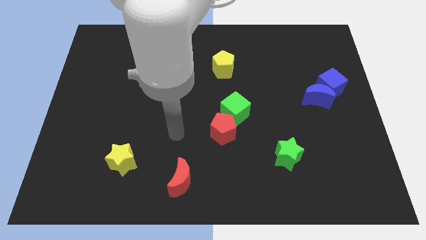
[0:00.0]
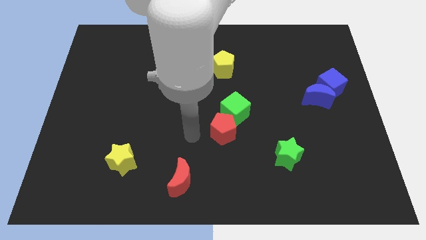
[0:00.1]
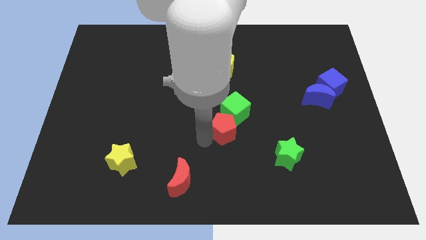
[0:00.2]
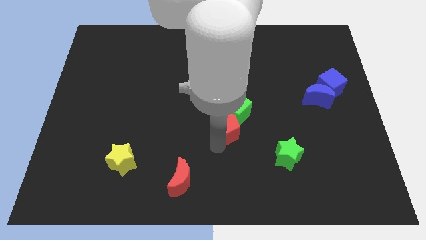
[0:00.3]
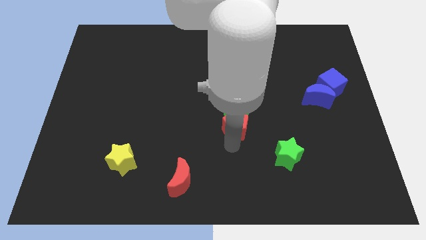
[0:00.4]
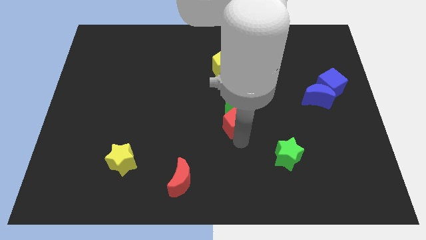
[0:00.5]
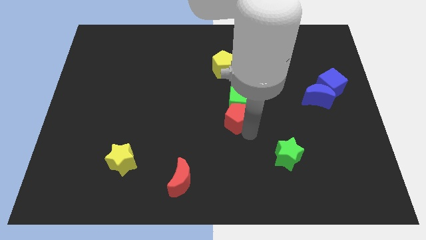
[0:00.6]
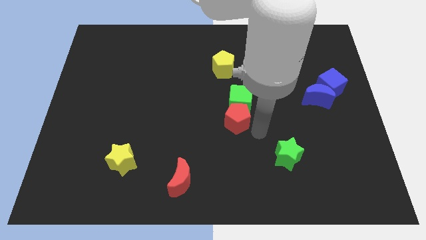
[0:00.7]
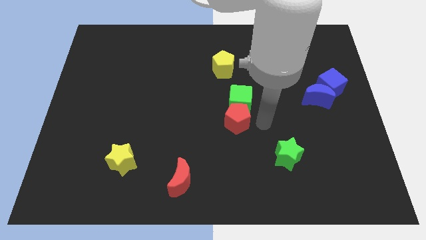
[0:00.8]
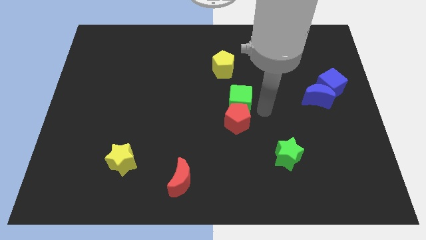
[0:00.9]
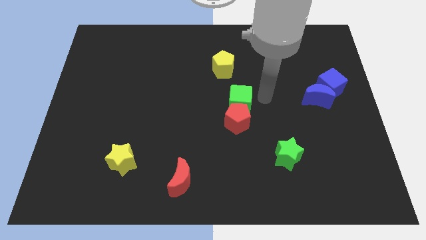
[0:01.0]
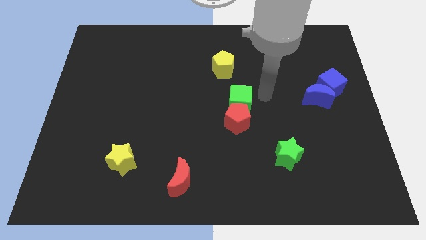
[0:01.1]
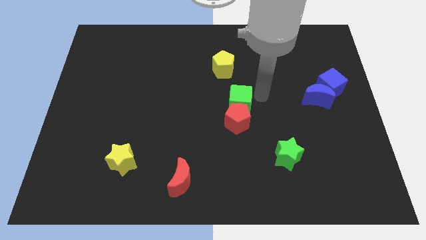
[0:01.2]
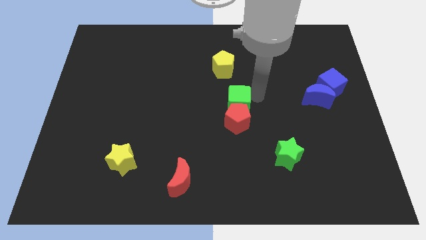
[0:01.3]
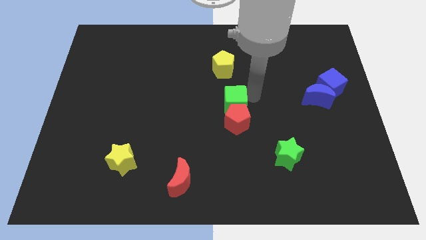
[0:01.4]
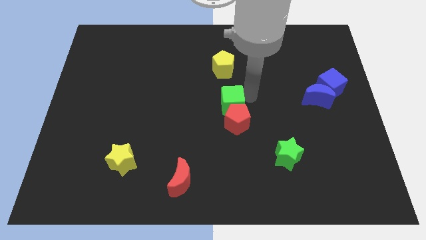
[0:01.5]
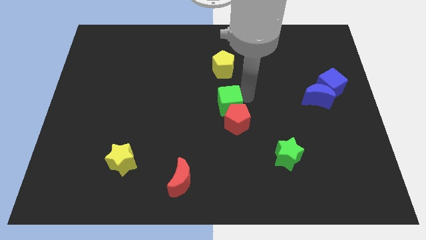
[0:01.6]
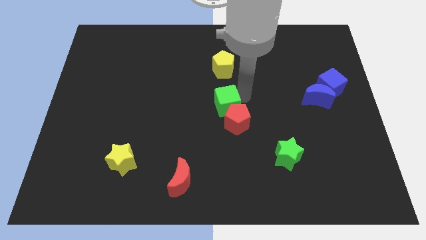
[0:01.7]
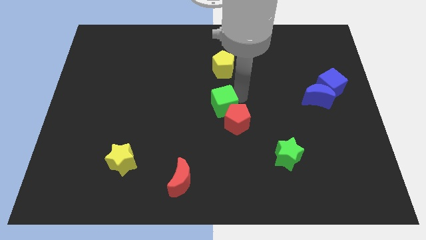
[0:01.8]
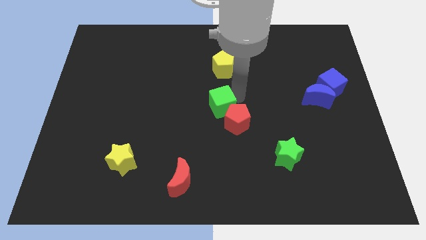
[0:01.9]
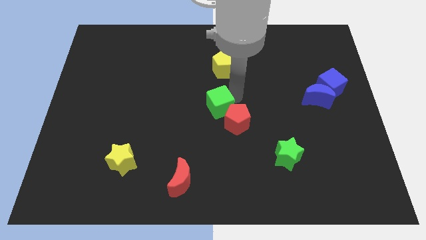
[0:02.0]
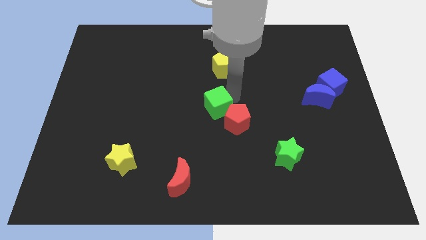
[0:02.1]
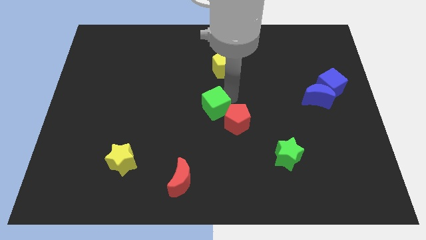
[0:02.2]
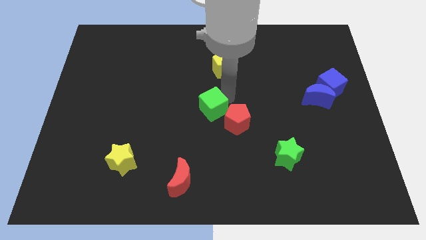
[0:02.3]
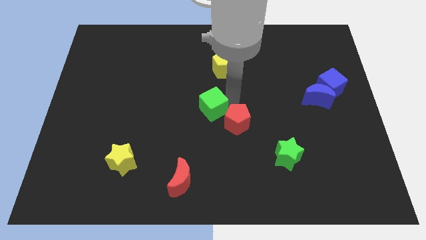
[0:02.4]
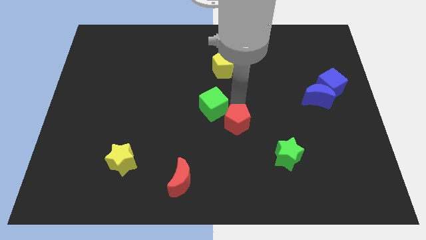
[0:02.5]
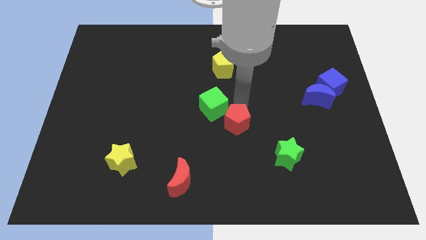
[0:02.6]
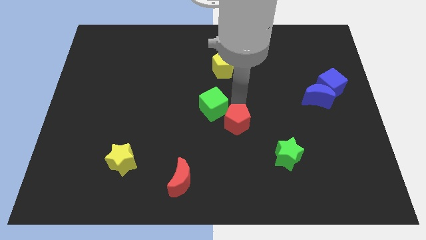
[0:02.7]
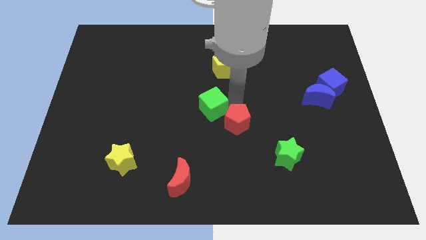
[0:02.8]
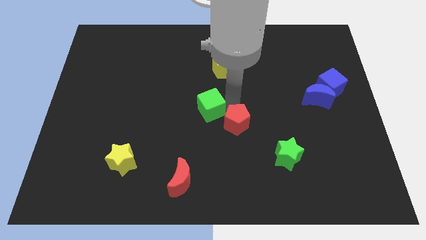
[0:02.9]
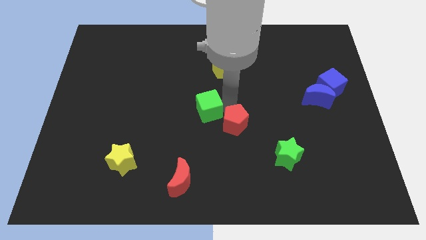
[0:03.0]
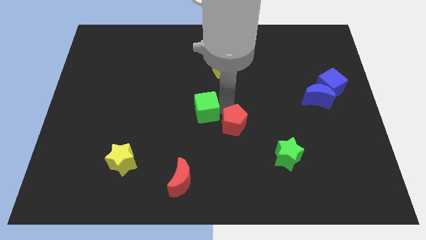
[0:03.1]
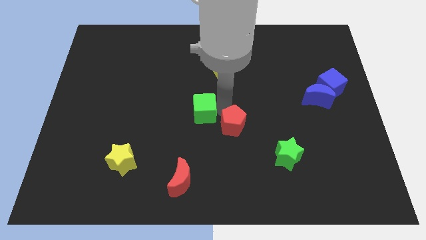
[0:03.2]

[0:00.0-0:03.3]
move the green cube left a little bit

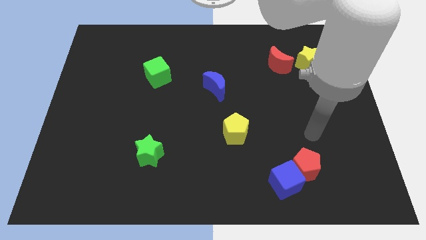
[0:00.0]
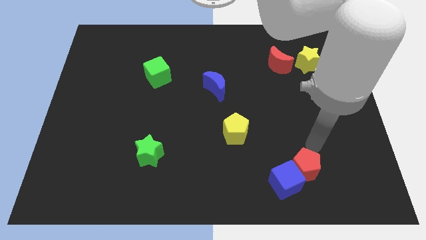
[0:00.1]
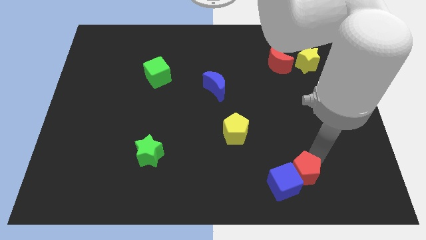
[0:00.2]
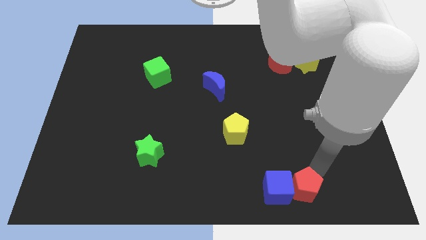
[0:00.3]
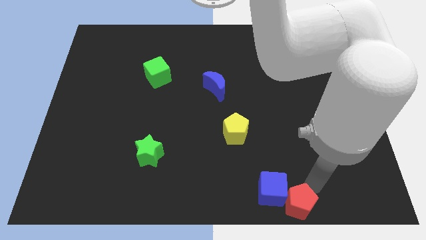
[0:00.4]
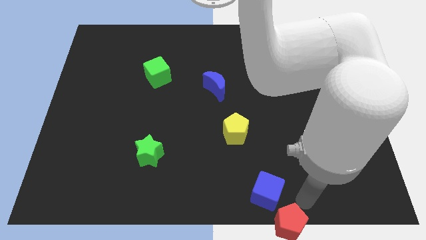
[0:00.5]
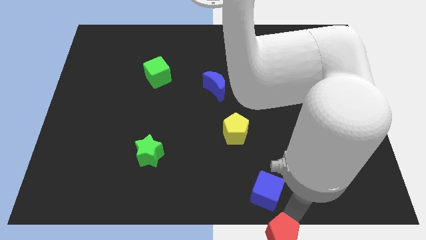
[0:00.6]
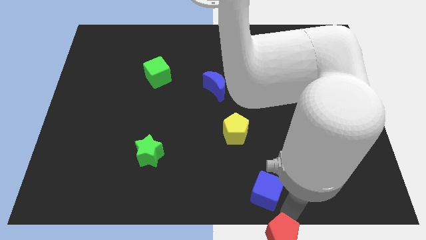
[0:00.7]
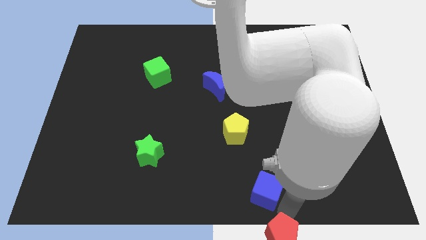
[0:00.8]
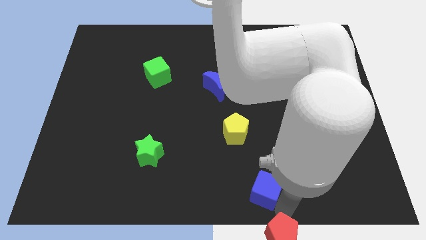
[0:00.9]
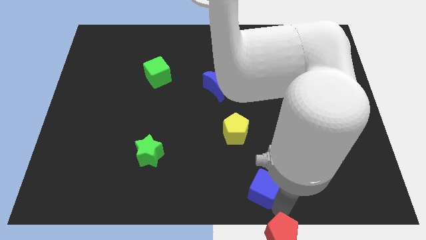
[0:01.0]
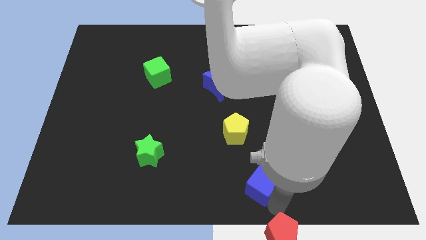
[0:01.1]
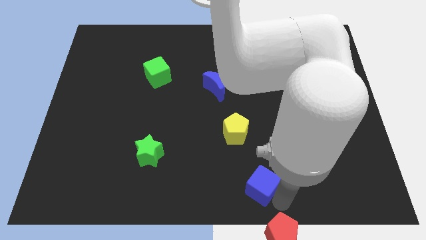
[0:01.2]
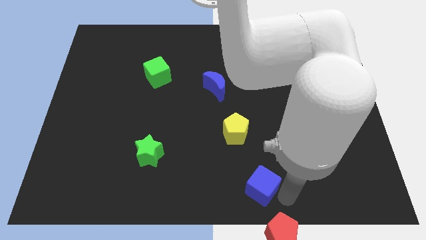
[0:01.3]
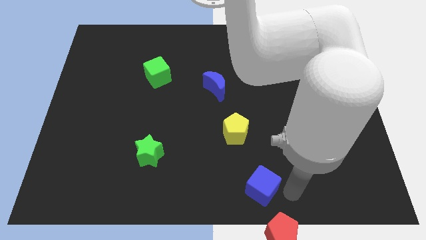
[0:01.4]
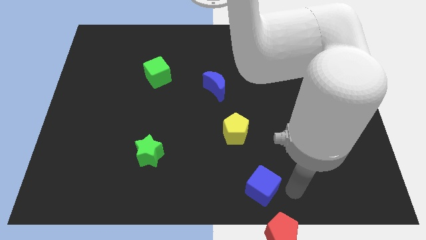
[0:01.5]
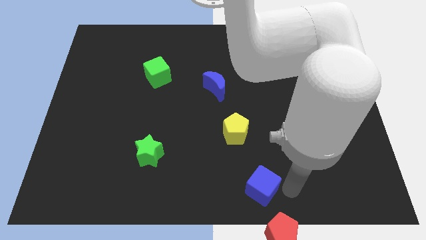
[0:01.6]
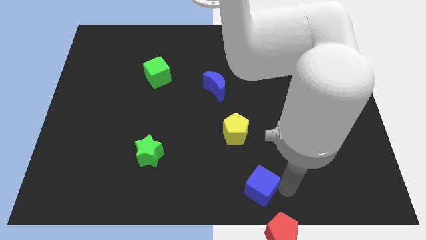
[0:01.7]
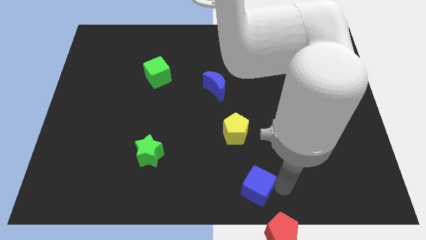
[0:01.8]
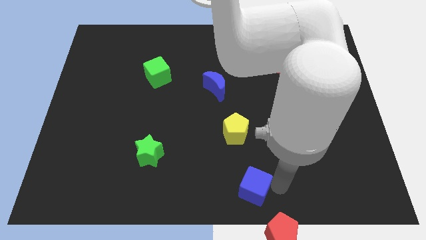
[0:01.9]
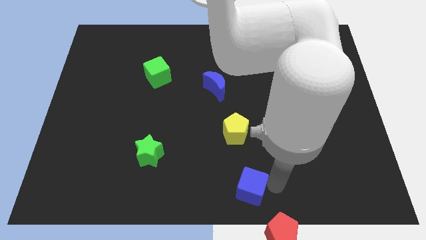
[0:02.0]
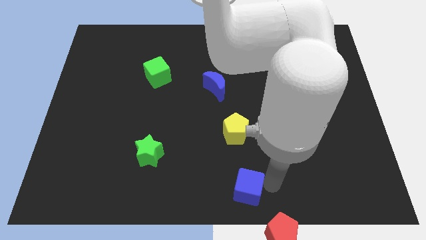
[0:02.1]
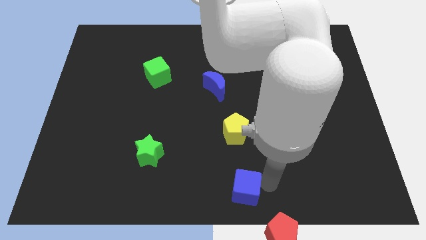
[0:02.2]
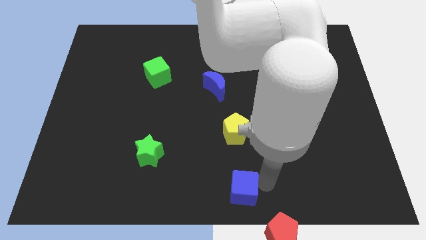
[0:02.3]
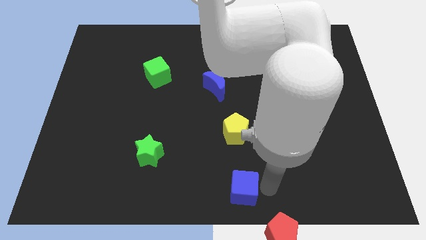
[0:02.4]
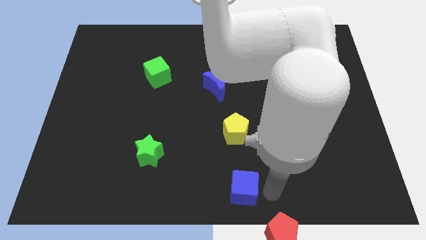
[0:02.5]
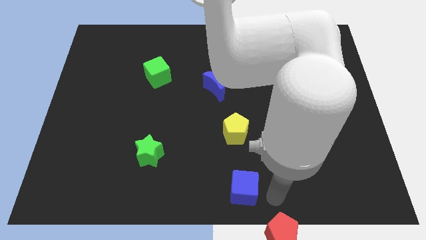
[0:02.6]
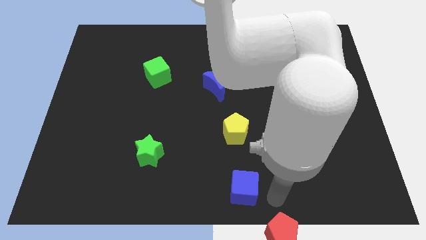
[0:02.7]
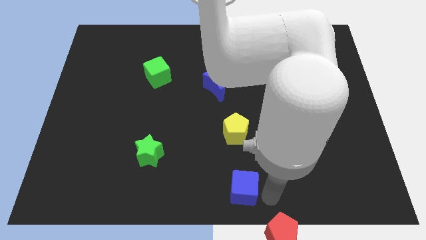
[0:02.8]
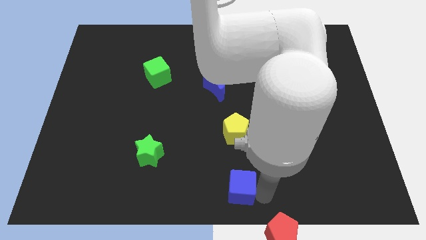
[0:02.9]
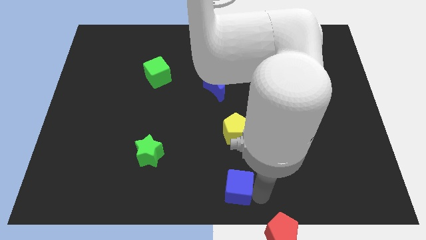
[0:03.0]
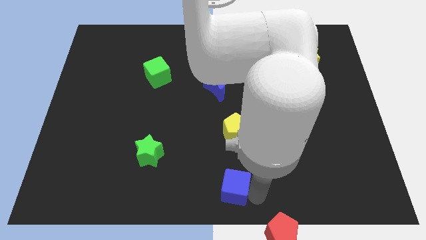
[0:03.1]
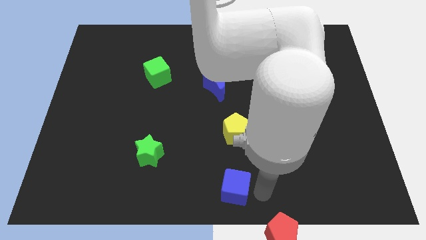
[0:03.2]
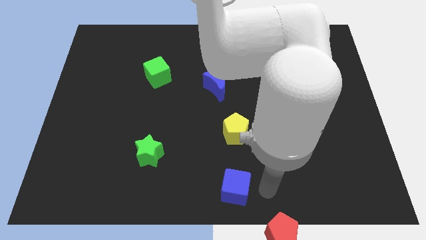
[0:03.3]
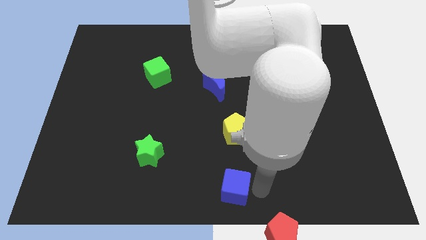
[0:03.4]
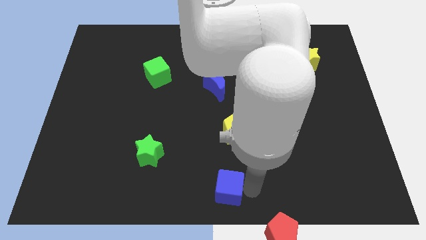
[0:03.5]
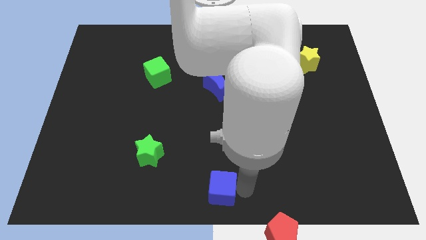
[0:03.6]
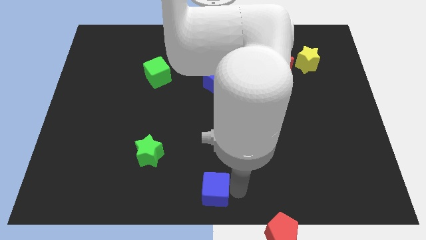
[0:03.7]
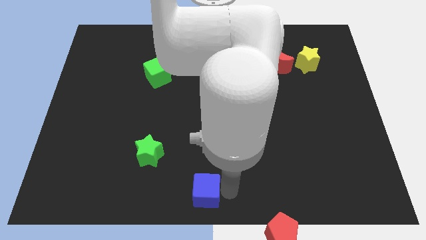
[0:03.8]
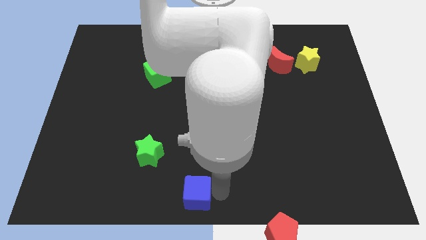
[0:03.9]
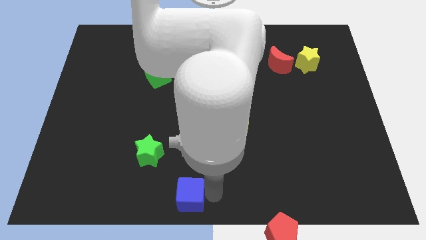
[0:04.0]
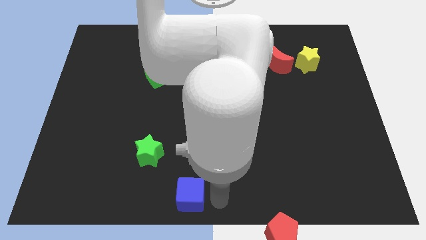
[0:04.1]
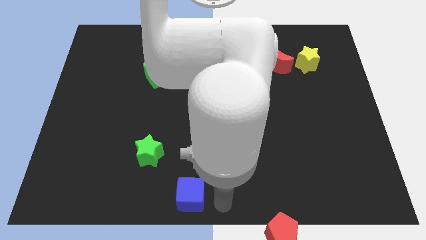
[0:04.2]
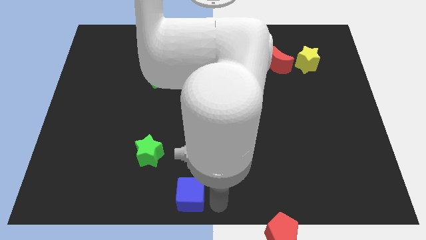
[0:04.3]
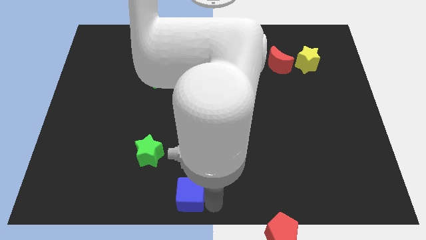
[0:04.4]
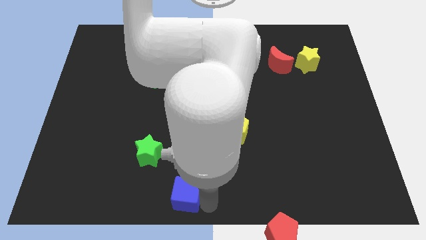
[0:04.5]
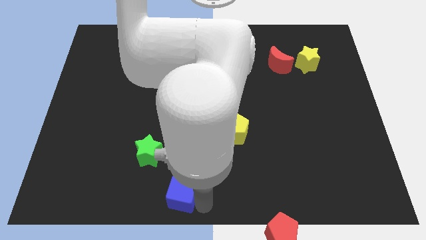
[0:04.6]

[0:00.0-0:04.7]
slide the blue cube left
